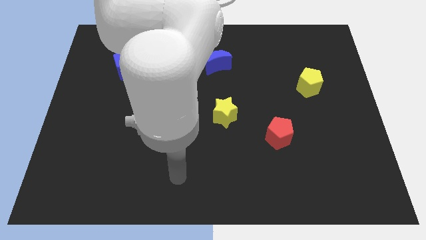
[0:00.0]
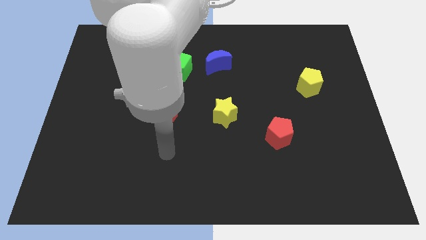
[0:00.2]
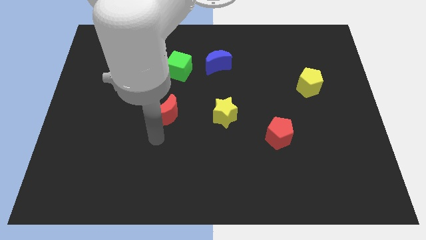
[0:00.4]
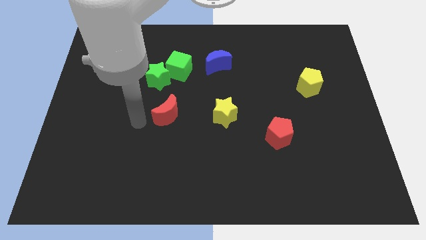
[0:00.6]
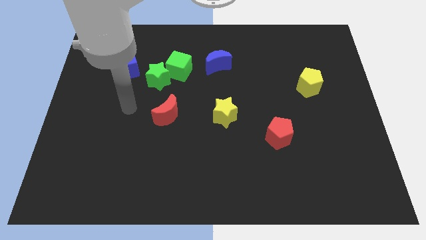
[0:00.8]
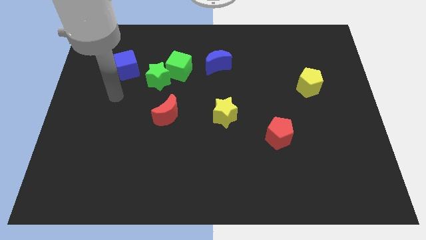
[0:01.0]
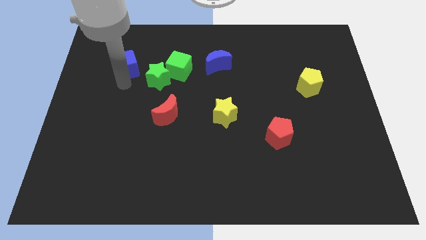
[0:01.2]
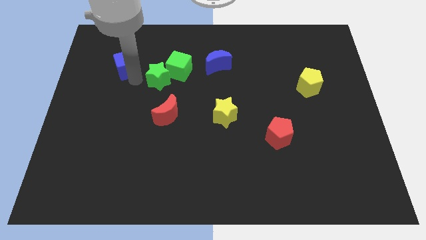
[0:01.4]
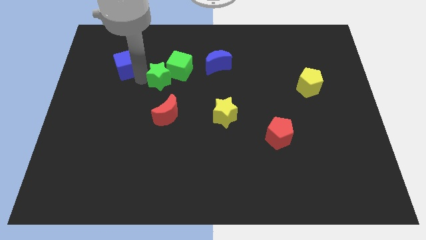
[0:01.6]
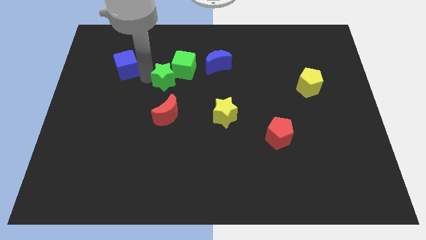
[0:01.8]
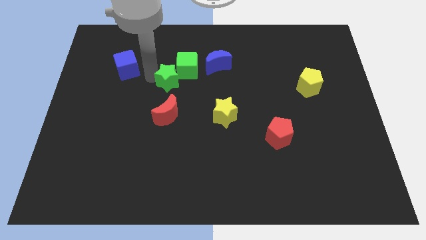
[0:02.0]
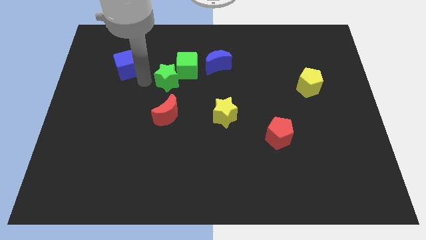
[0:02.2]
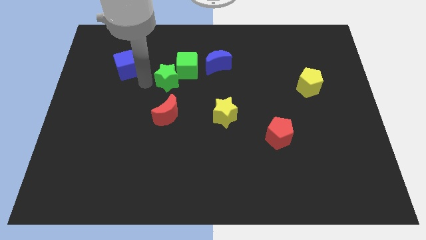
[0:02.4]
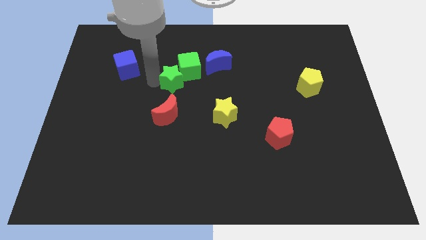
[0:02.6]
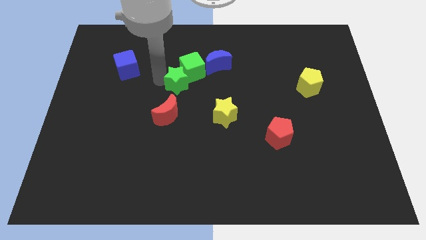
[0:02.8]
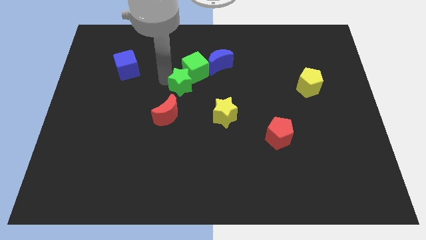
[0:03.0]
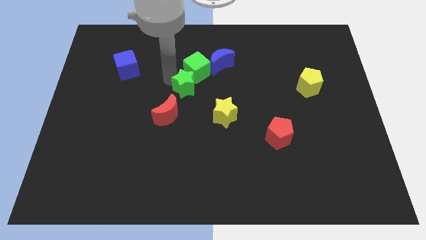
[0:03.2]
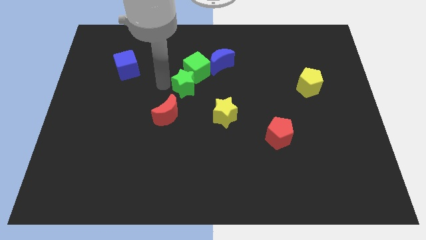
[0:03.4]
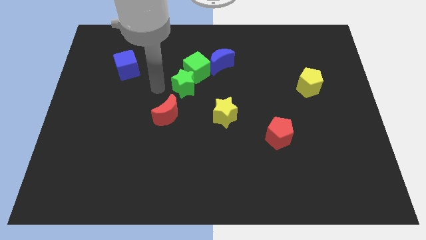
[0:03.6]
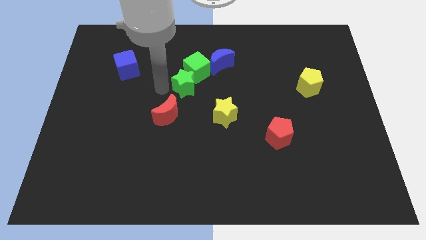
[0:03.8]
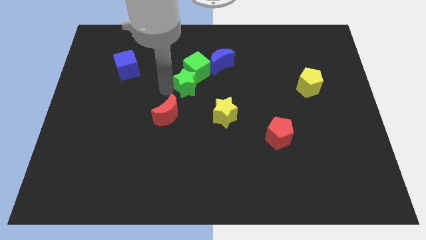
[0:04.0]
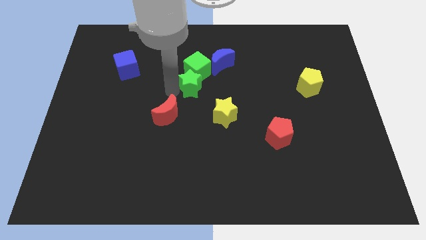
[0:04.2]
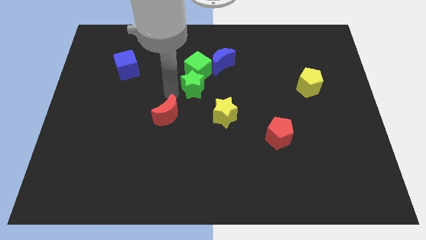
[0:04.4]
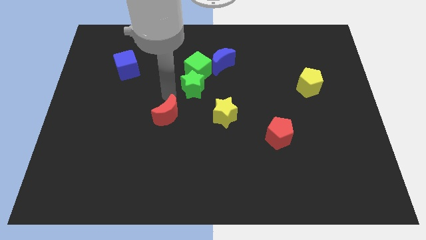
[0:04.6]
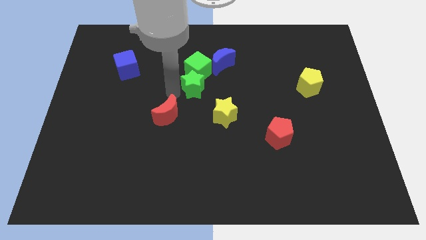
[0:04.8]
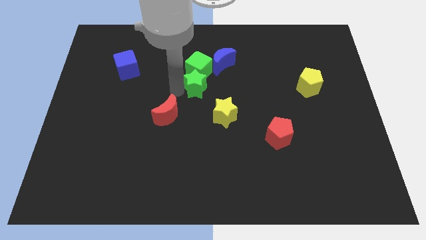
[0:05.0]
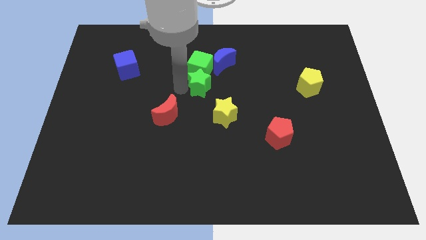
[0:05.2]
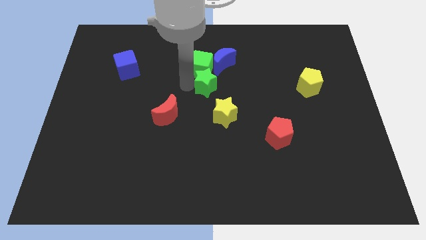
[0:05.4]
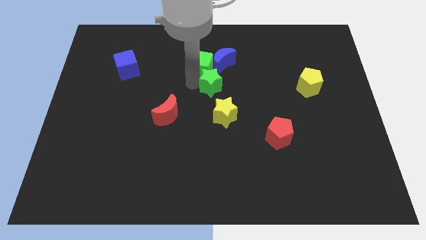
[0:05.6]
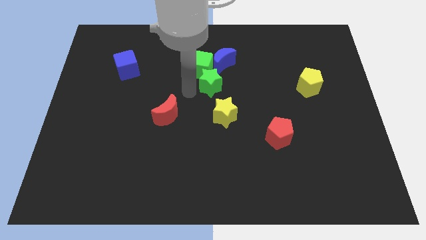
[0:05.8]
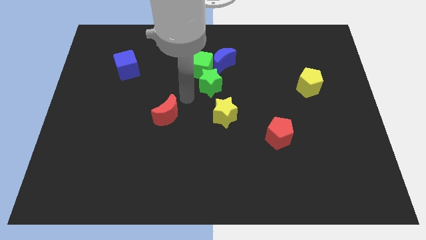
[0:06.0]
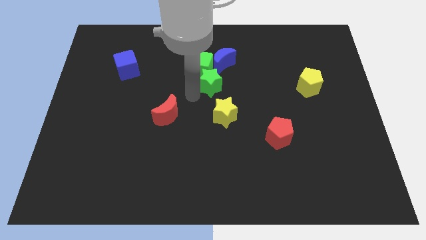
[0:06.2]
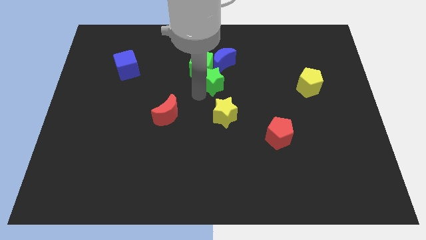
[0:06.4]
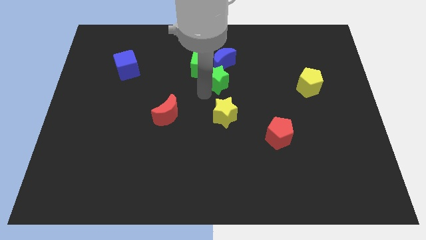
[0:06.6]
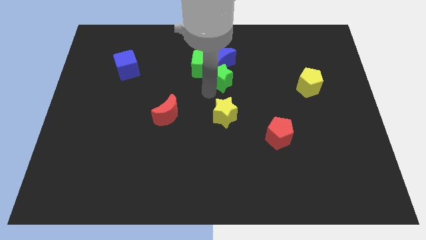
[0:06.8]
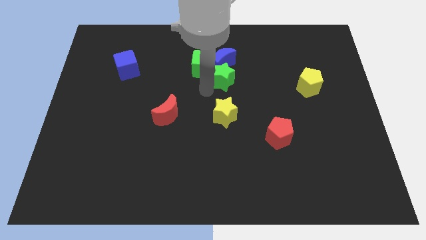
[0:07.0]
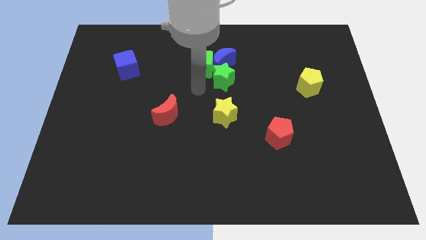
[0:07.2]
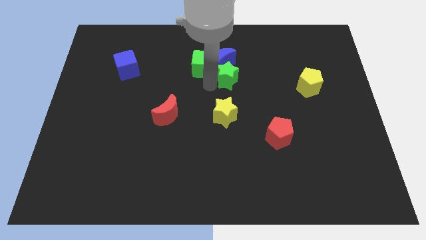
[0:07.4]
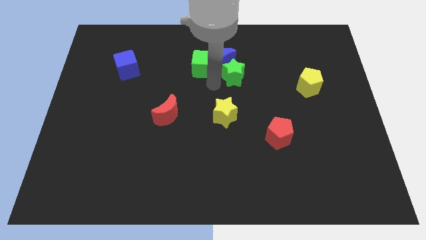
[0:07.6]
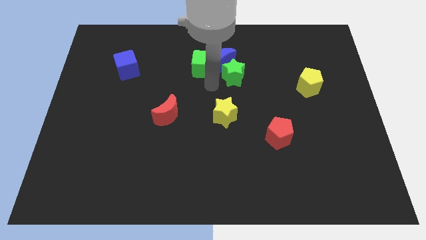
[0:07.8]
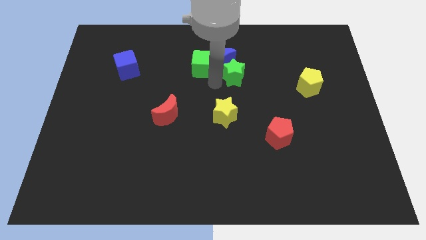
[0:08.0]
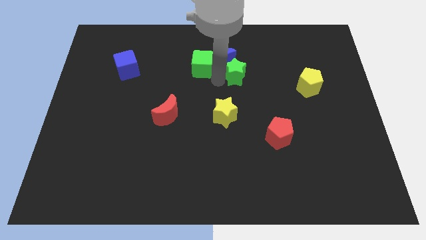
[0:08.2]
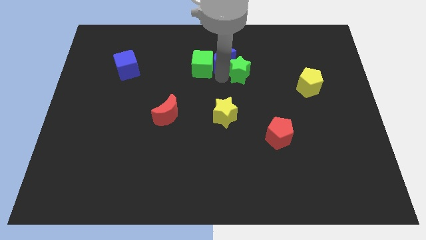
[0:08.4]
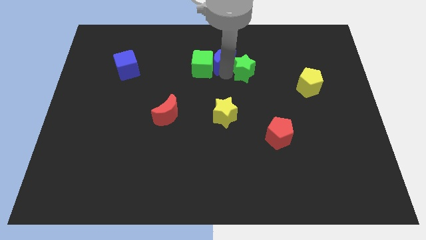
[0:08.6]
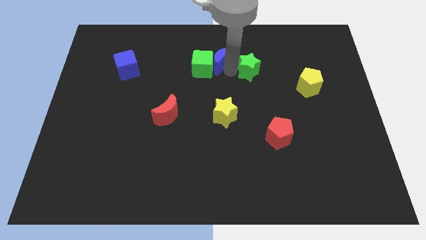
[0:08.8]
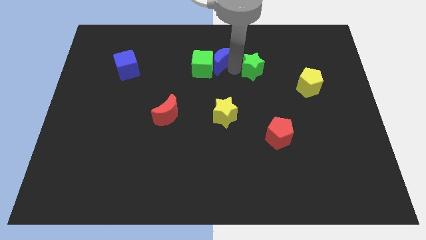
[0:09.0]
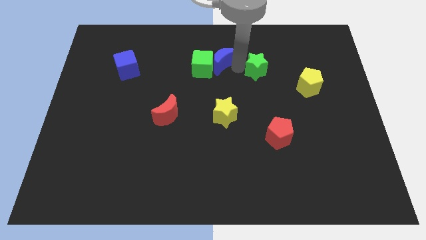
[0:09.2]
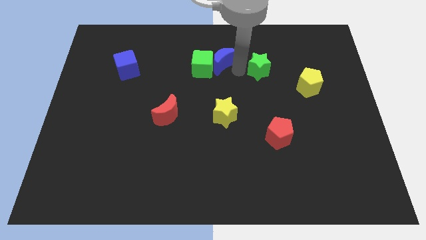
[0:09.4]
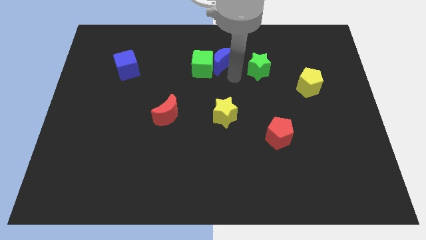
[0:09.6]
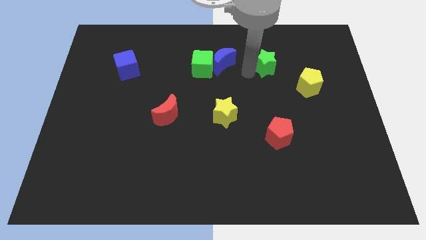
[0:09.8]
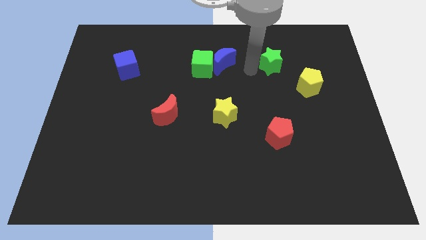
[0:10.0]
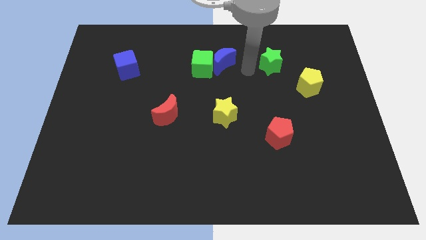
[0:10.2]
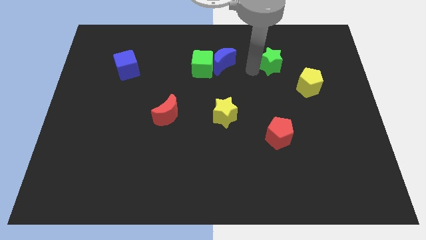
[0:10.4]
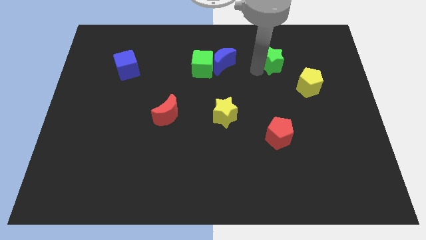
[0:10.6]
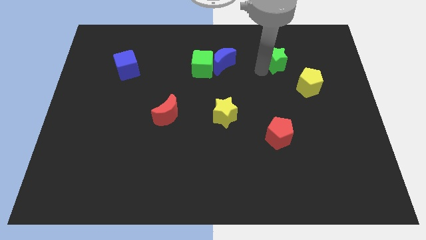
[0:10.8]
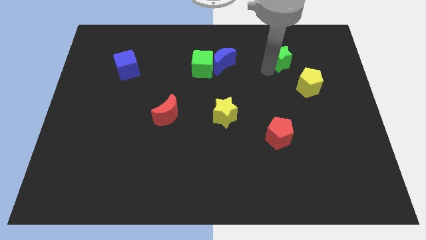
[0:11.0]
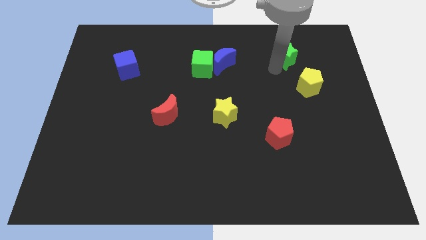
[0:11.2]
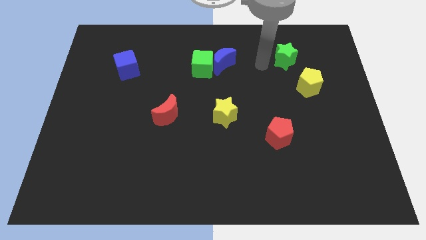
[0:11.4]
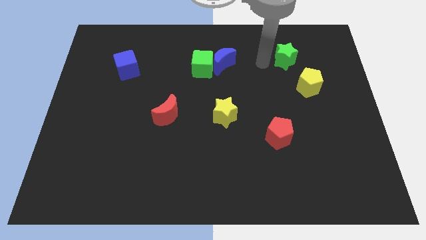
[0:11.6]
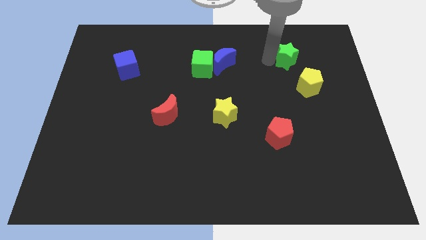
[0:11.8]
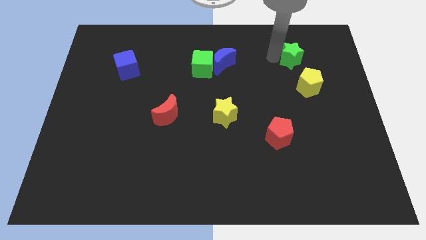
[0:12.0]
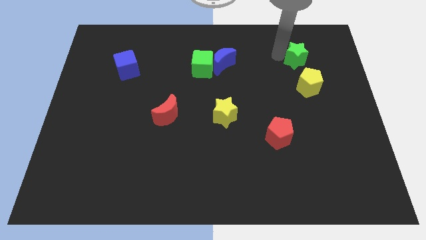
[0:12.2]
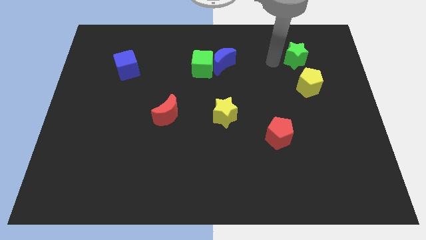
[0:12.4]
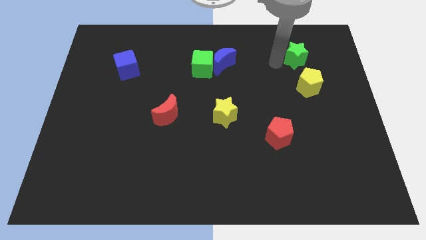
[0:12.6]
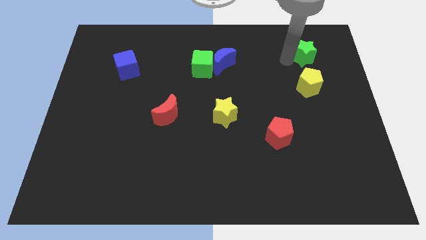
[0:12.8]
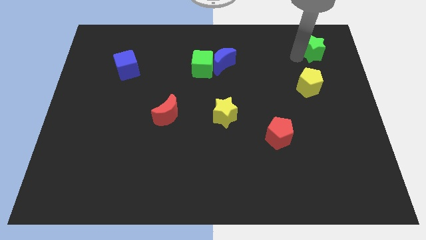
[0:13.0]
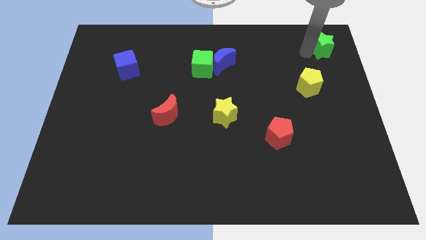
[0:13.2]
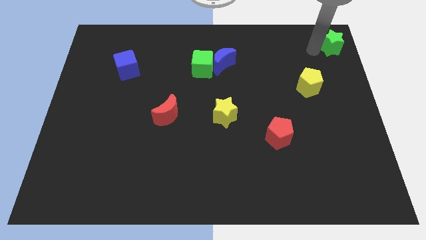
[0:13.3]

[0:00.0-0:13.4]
push the green star to the top right

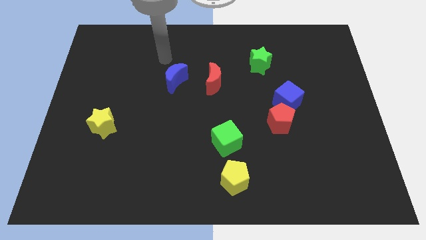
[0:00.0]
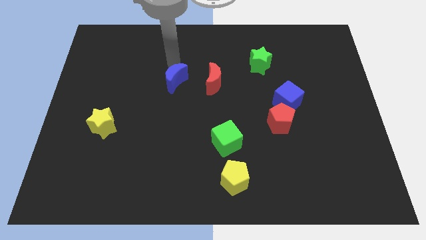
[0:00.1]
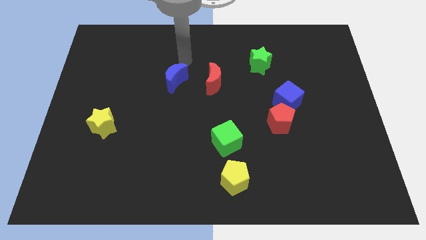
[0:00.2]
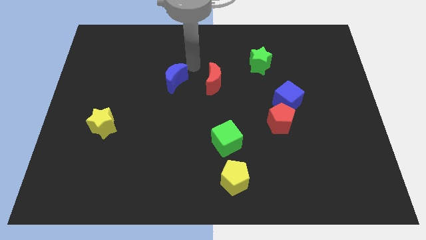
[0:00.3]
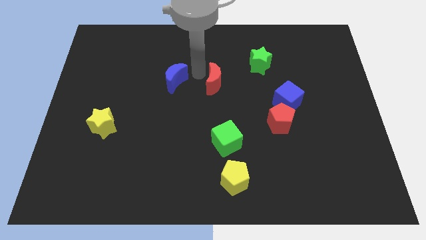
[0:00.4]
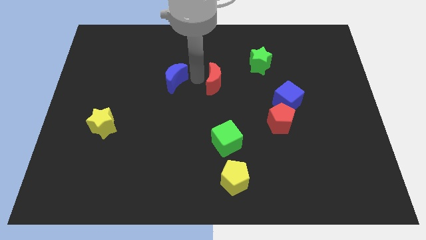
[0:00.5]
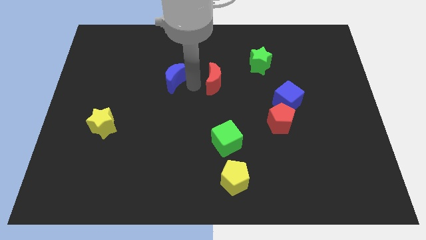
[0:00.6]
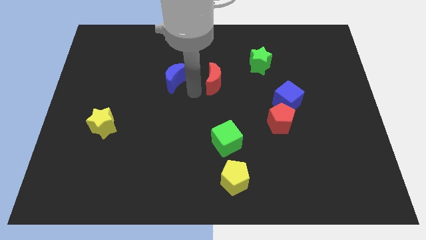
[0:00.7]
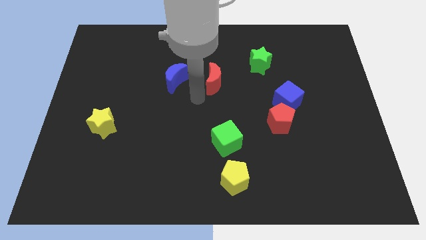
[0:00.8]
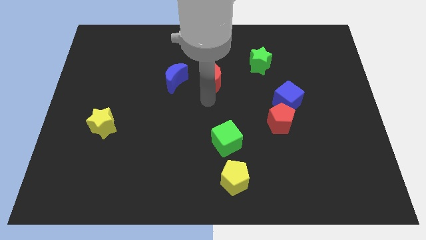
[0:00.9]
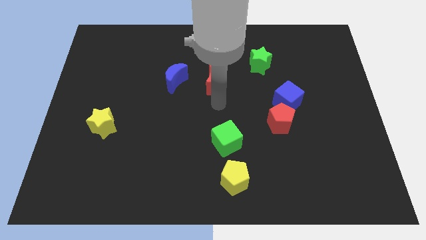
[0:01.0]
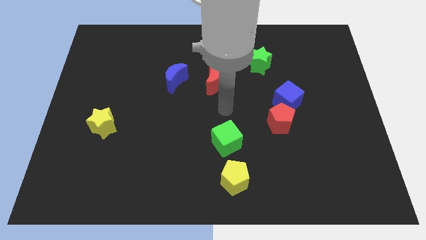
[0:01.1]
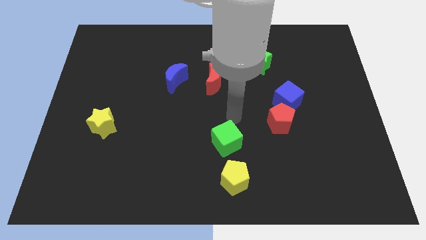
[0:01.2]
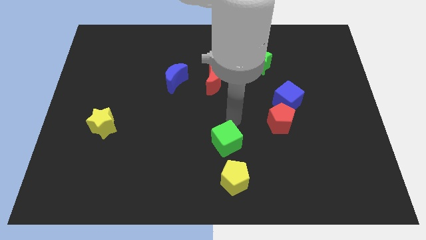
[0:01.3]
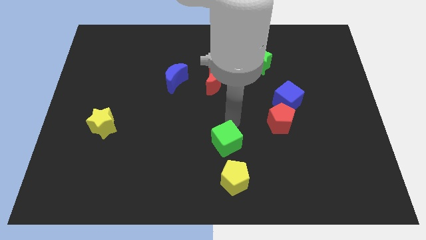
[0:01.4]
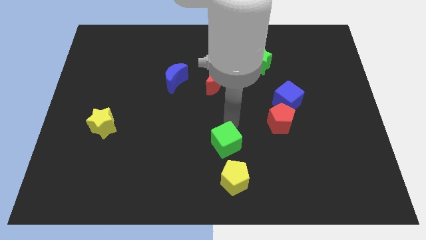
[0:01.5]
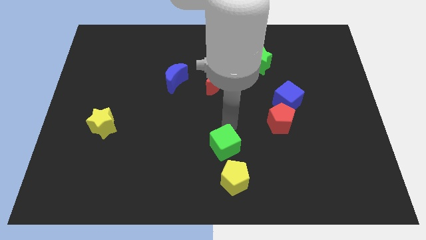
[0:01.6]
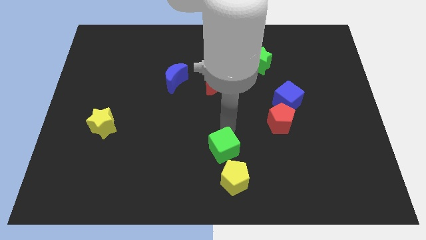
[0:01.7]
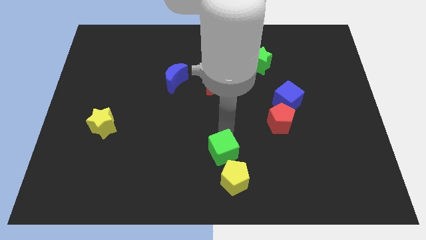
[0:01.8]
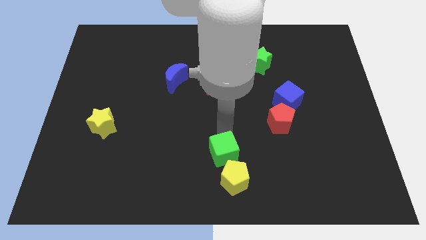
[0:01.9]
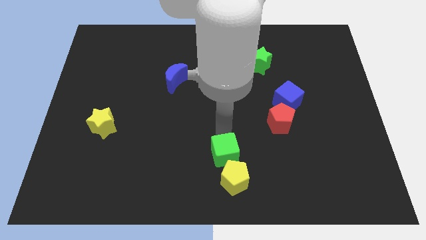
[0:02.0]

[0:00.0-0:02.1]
put the green cube to the bottom side
